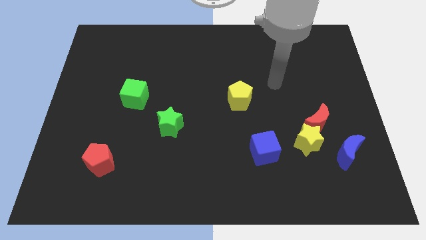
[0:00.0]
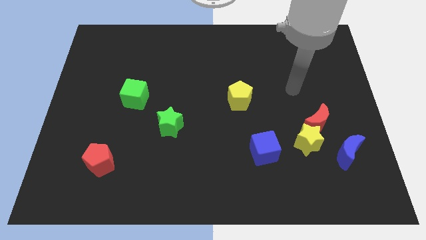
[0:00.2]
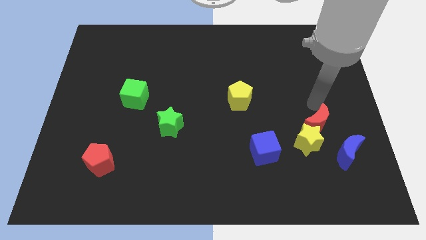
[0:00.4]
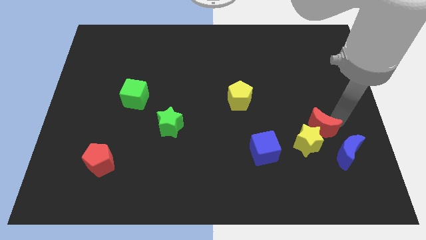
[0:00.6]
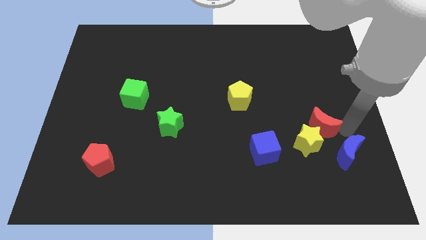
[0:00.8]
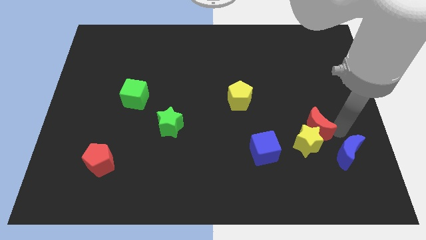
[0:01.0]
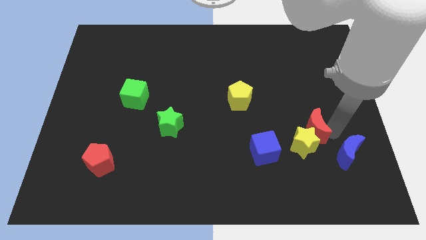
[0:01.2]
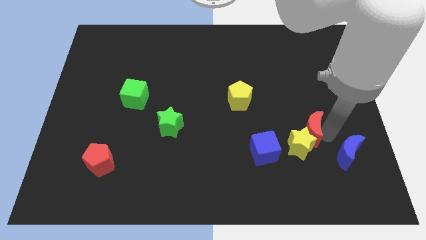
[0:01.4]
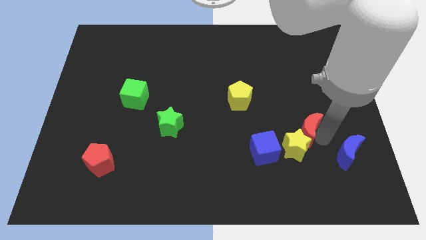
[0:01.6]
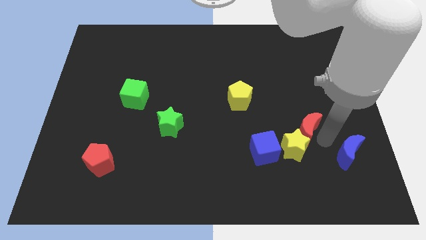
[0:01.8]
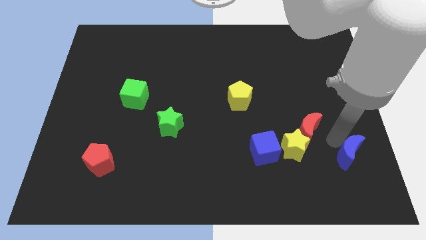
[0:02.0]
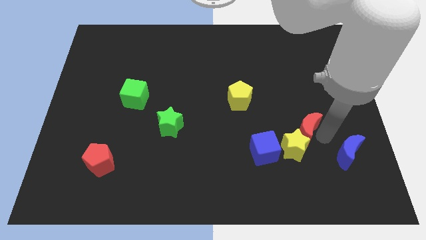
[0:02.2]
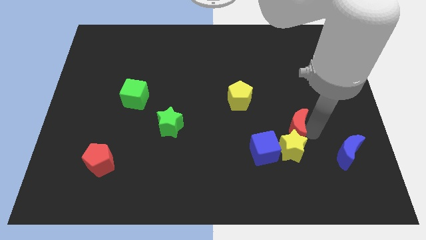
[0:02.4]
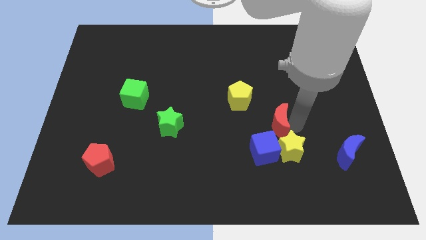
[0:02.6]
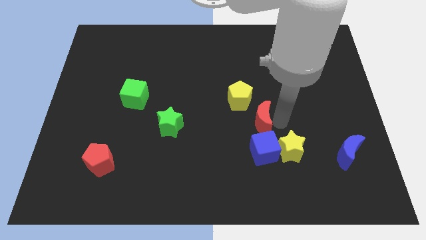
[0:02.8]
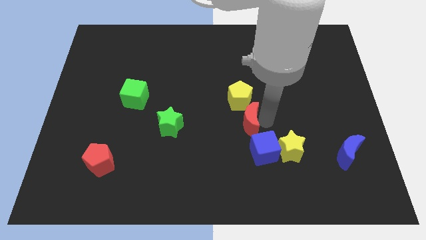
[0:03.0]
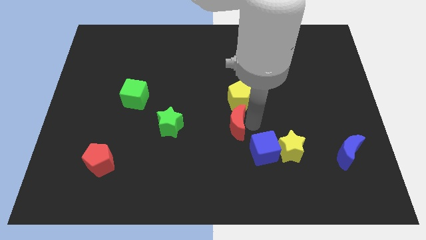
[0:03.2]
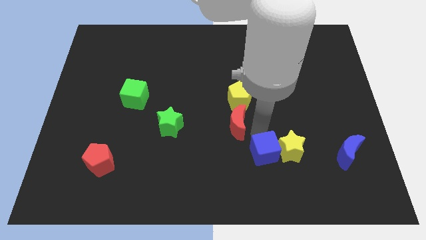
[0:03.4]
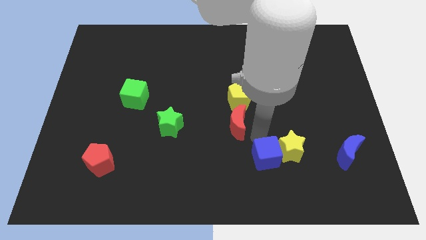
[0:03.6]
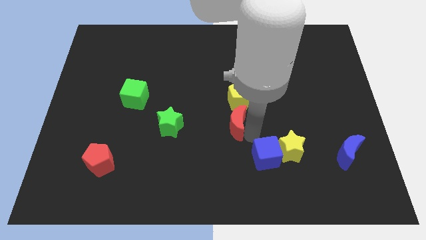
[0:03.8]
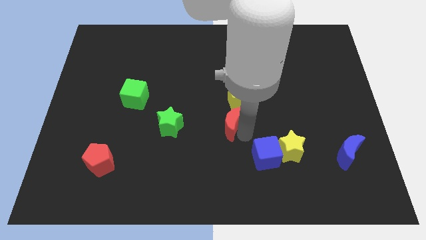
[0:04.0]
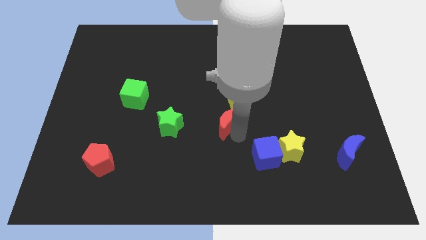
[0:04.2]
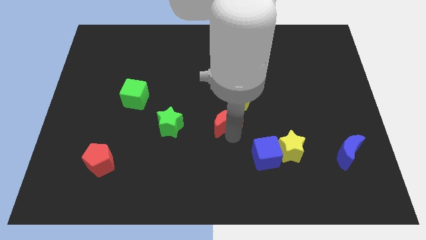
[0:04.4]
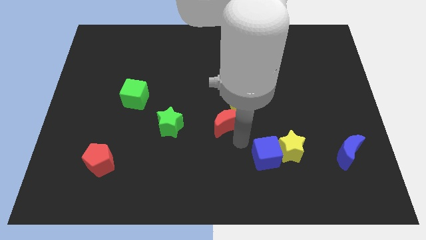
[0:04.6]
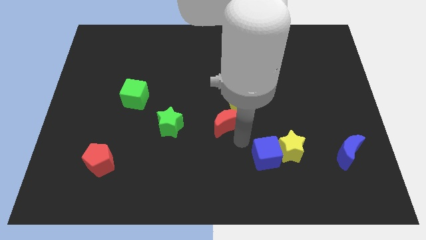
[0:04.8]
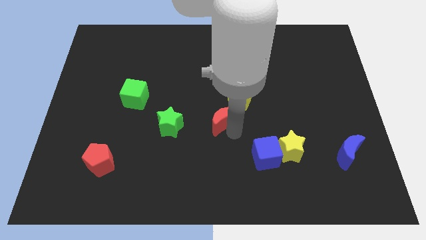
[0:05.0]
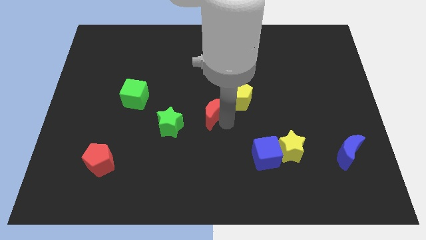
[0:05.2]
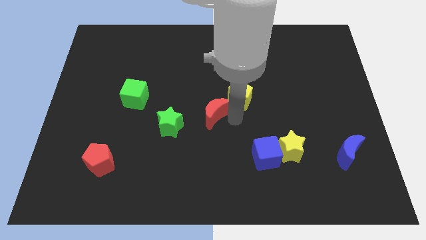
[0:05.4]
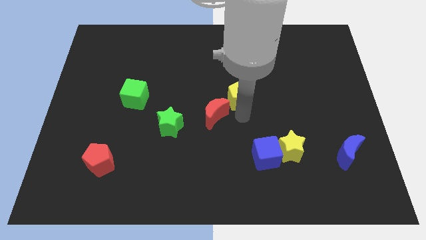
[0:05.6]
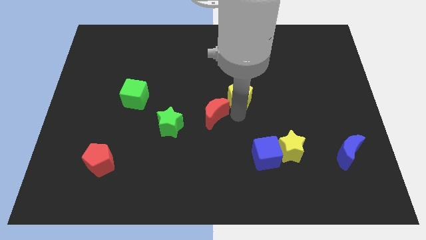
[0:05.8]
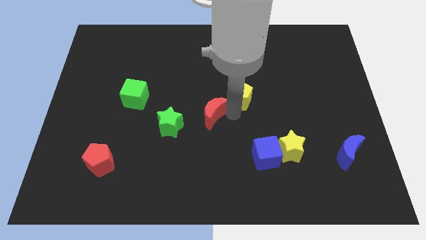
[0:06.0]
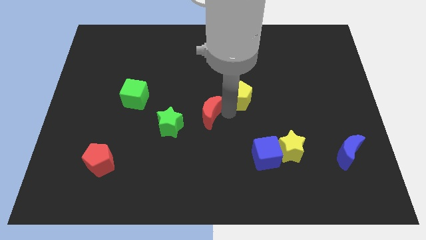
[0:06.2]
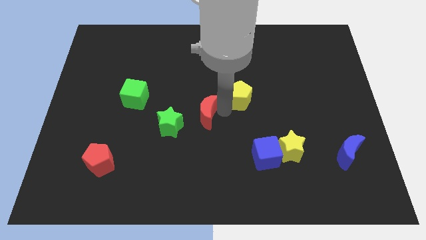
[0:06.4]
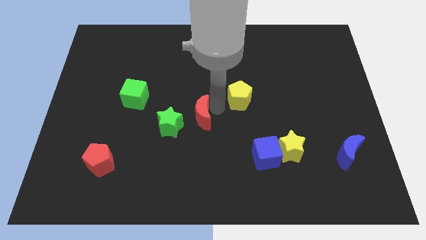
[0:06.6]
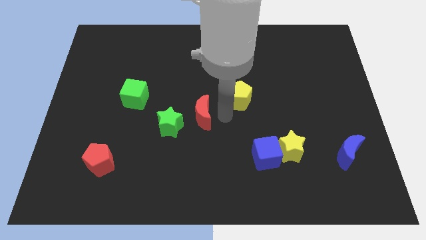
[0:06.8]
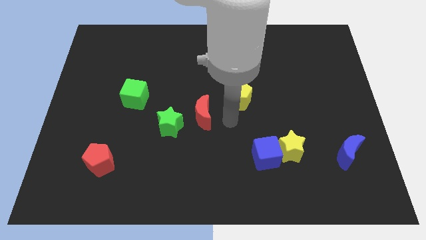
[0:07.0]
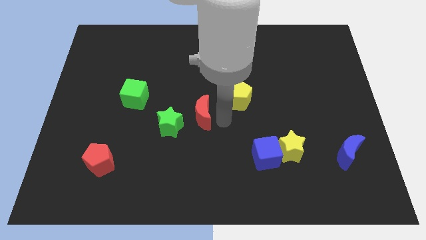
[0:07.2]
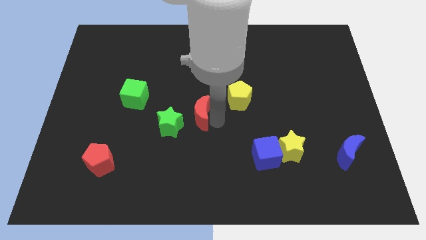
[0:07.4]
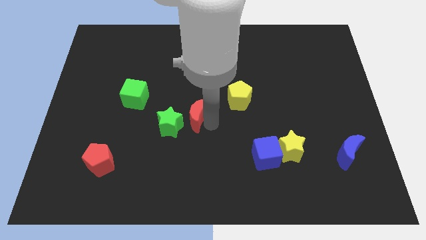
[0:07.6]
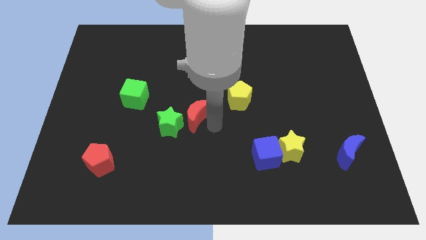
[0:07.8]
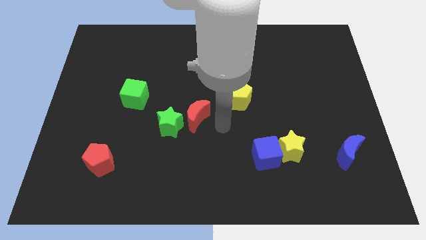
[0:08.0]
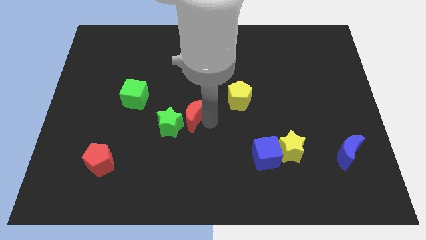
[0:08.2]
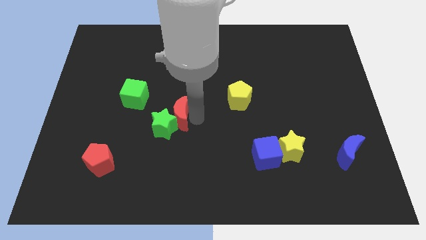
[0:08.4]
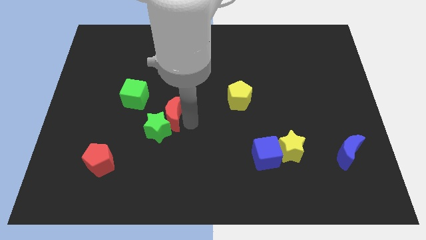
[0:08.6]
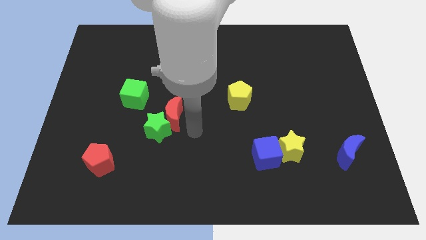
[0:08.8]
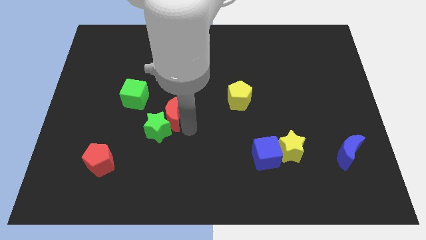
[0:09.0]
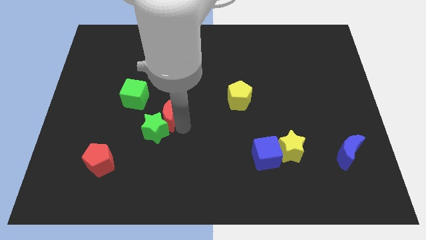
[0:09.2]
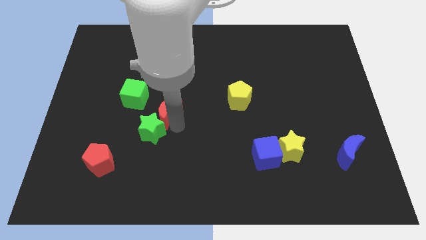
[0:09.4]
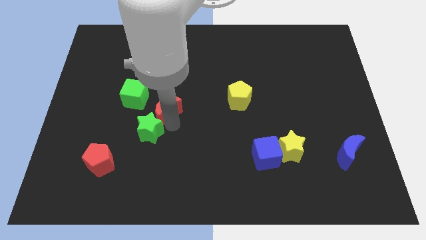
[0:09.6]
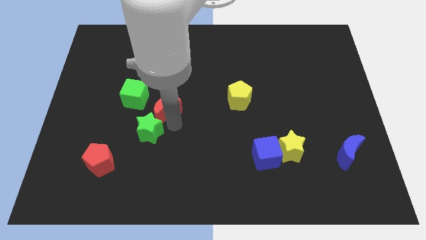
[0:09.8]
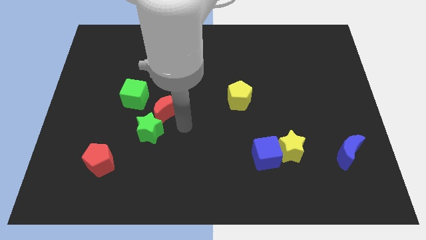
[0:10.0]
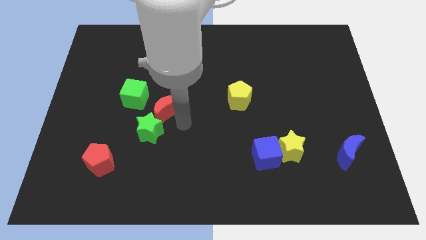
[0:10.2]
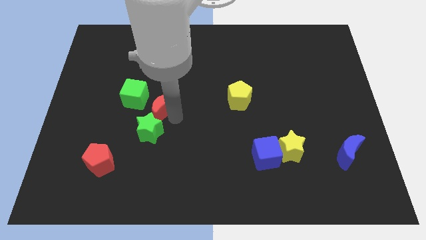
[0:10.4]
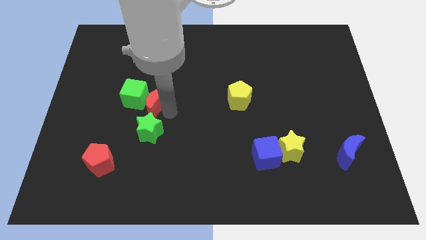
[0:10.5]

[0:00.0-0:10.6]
put the red moon to the green cube

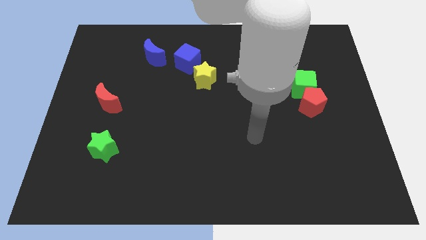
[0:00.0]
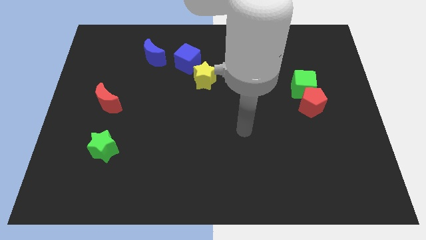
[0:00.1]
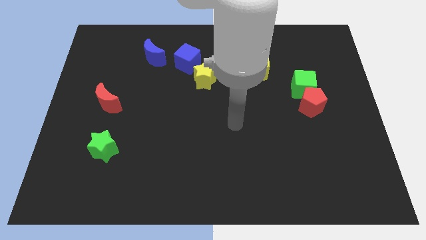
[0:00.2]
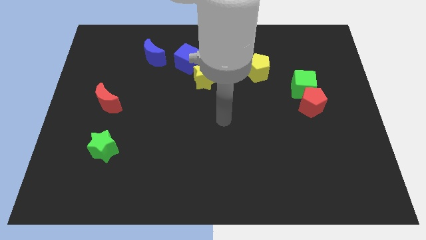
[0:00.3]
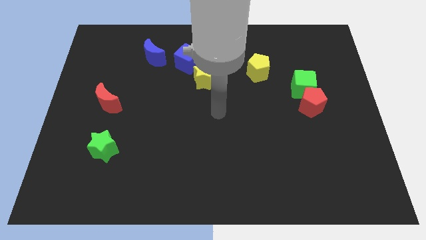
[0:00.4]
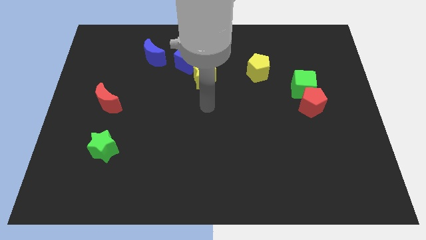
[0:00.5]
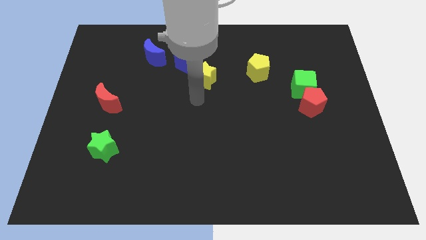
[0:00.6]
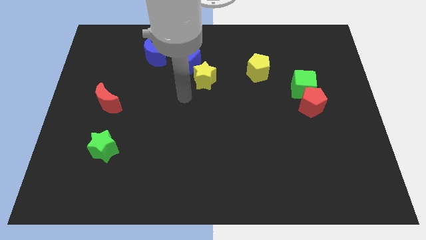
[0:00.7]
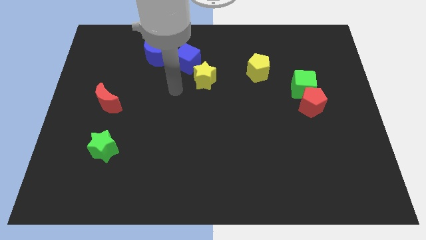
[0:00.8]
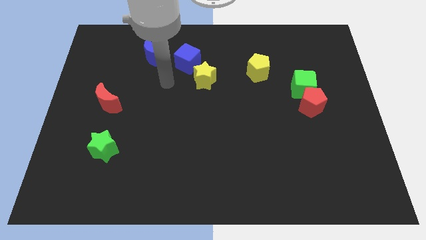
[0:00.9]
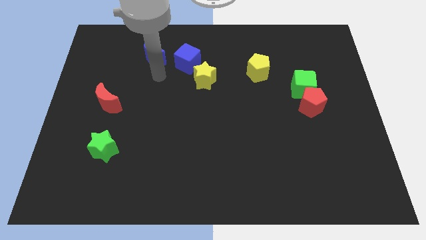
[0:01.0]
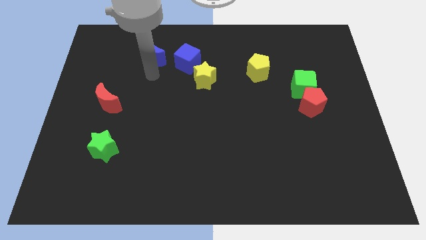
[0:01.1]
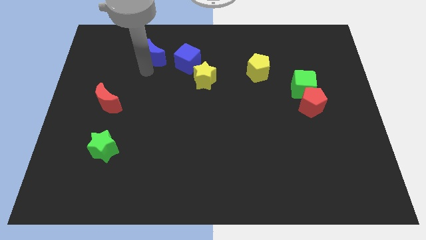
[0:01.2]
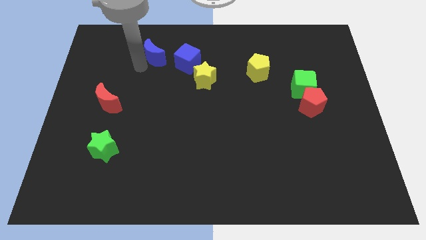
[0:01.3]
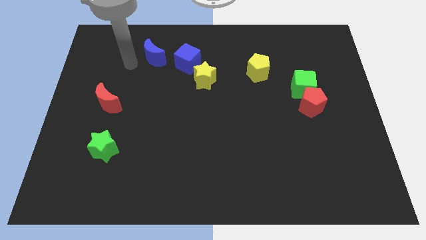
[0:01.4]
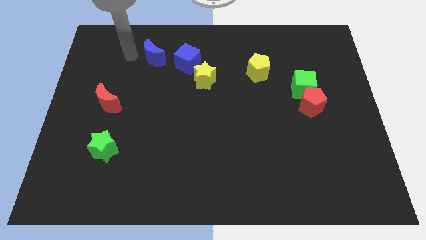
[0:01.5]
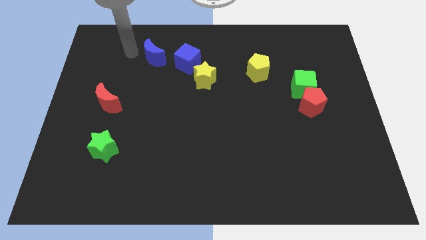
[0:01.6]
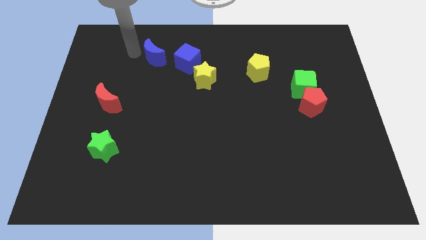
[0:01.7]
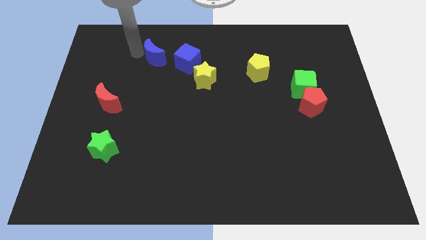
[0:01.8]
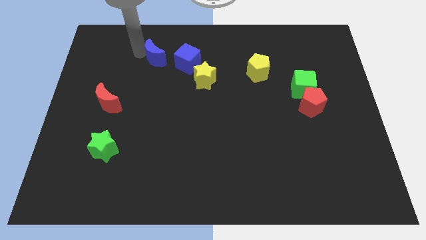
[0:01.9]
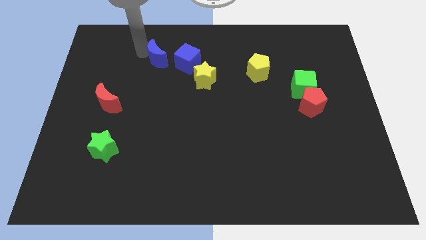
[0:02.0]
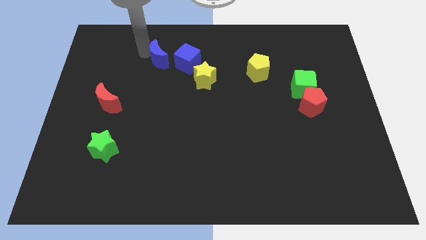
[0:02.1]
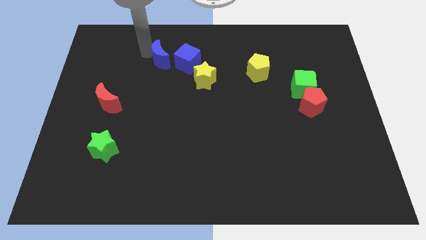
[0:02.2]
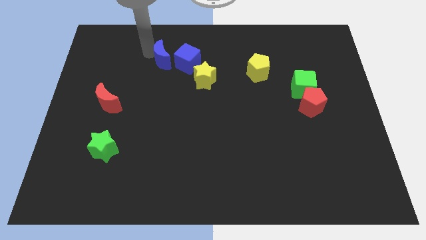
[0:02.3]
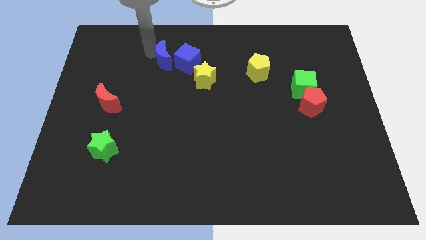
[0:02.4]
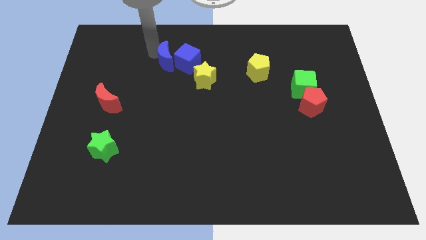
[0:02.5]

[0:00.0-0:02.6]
slide the blue moon towards the blue cube
